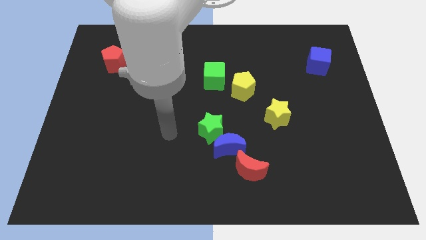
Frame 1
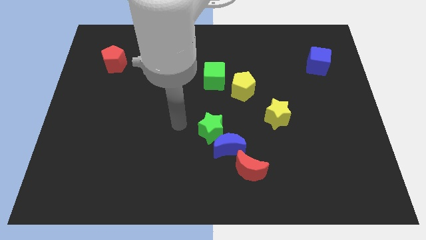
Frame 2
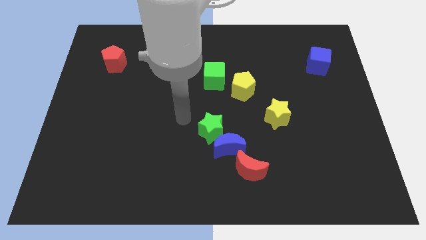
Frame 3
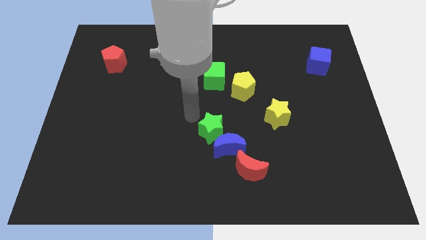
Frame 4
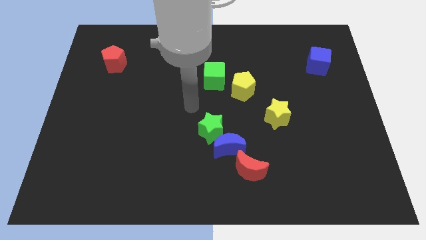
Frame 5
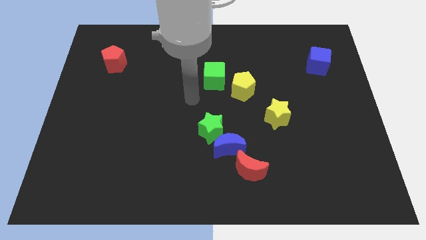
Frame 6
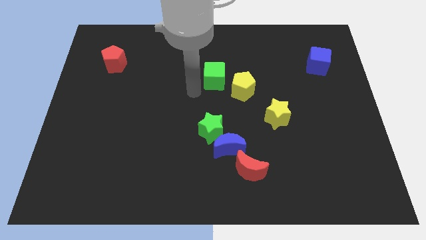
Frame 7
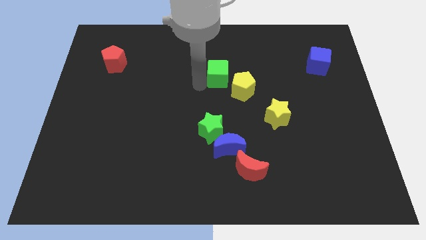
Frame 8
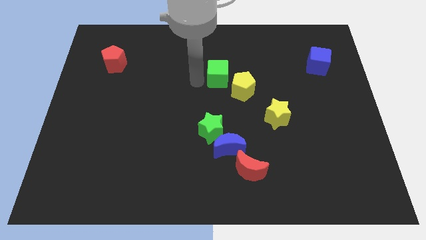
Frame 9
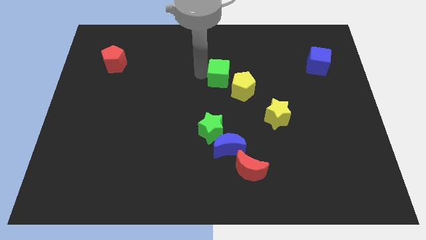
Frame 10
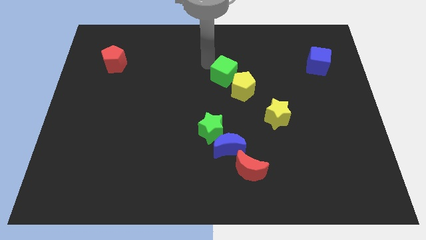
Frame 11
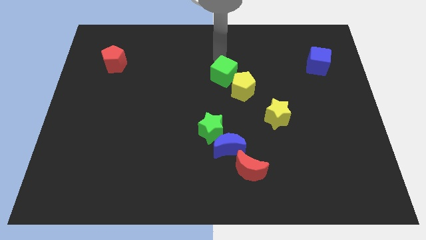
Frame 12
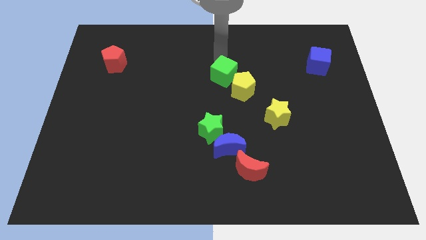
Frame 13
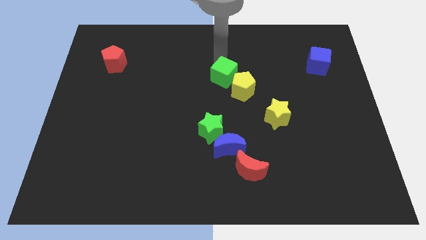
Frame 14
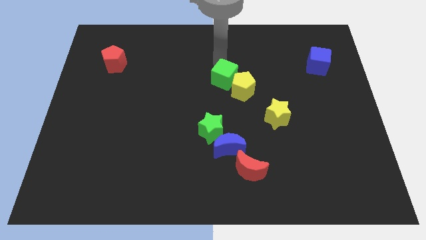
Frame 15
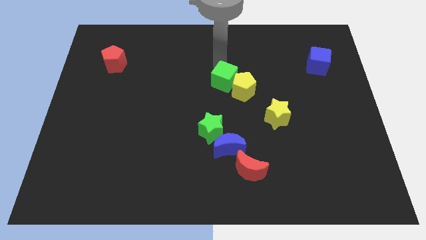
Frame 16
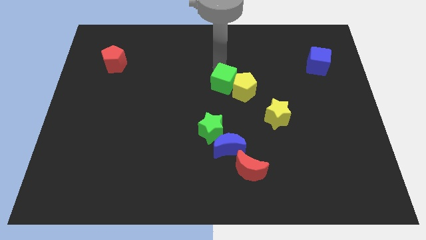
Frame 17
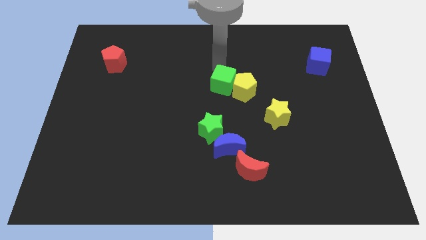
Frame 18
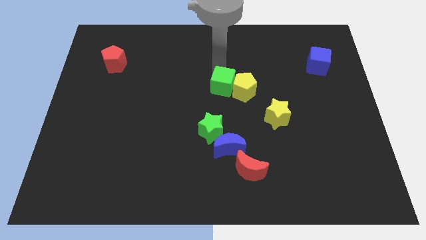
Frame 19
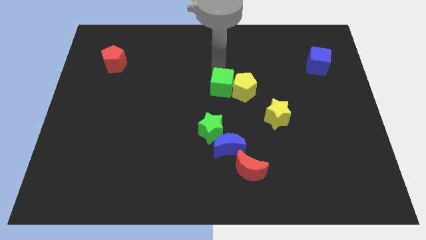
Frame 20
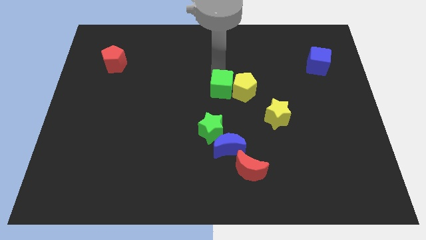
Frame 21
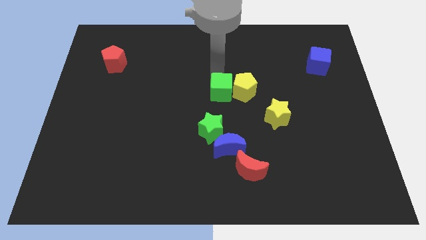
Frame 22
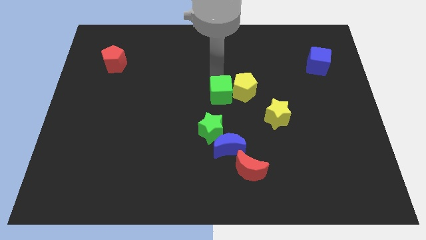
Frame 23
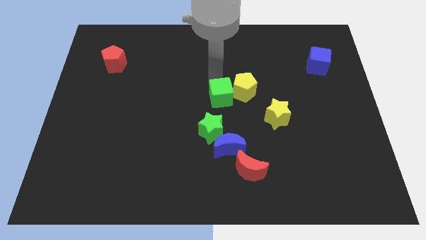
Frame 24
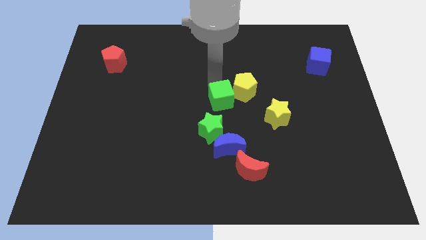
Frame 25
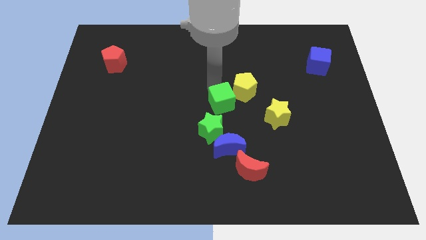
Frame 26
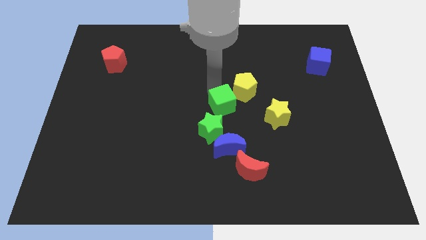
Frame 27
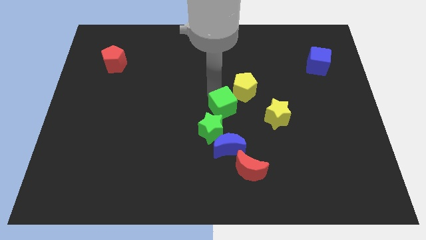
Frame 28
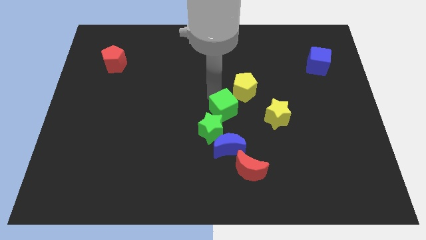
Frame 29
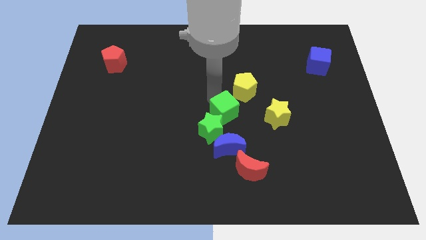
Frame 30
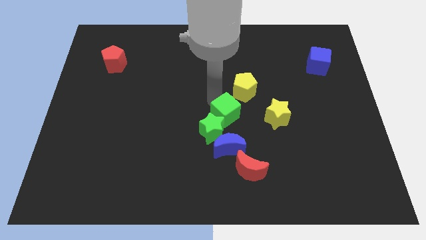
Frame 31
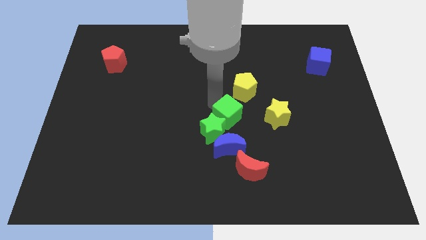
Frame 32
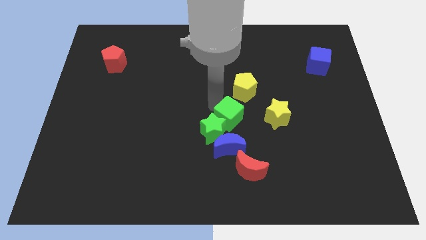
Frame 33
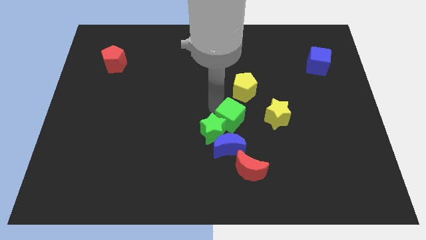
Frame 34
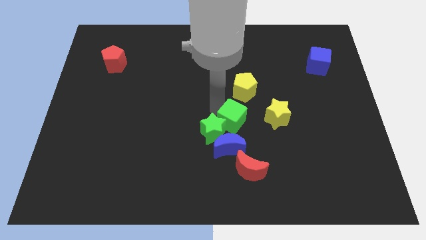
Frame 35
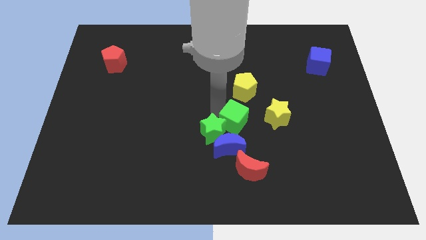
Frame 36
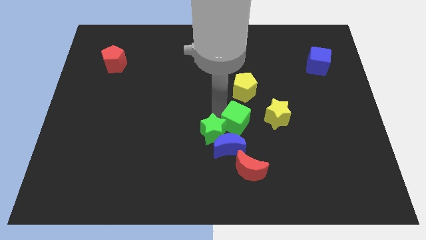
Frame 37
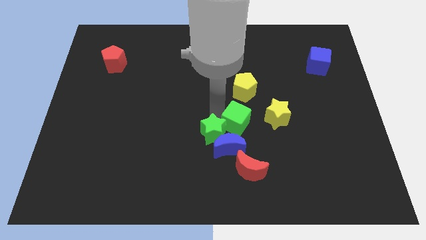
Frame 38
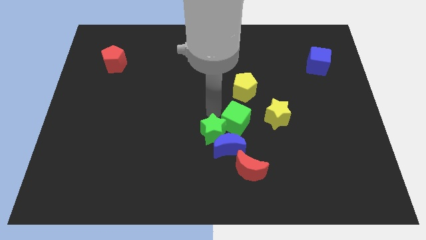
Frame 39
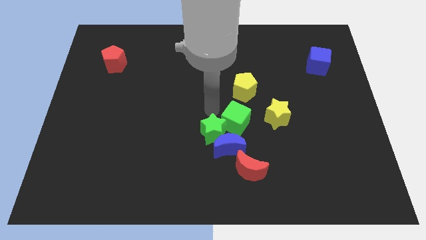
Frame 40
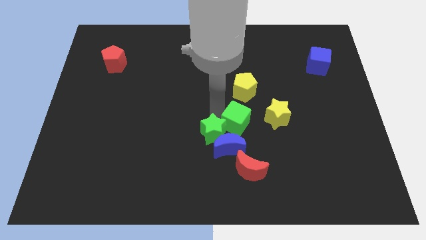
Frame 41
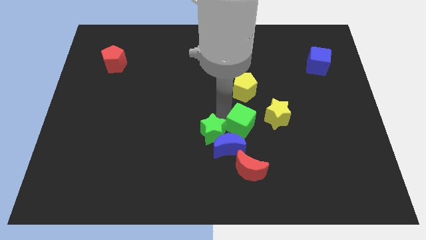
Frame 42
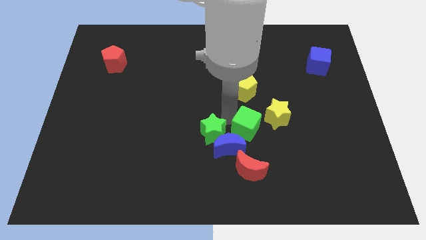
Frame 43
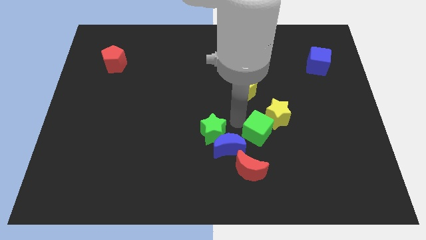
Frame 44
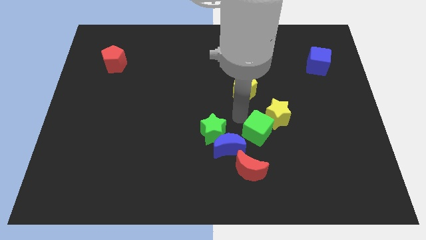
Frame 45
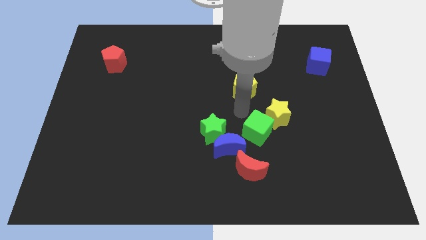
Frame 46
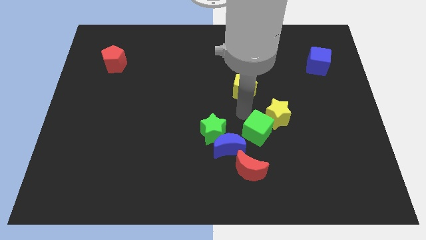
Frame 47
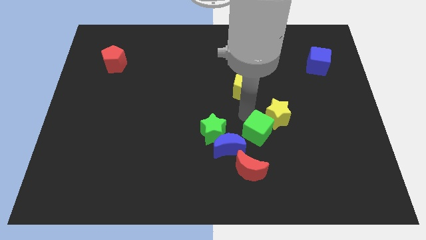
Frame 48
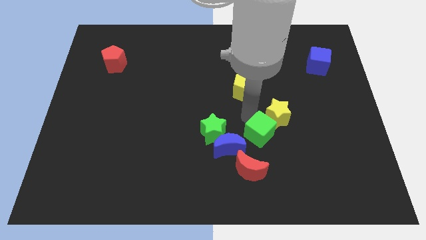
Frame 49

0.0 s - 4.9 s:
push the green cube to the top right of the red moon

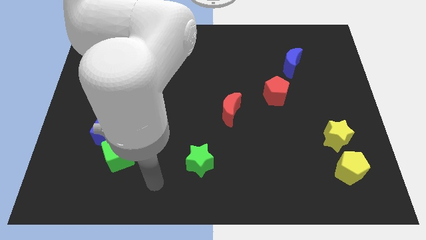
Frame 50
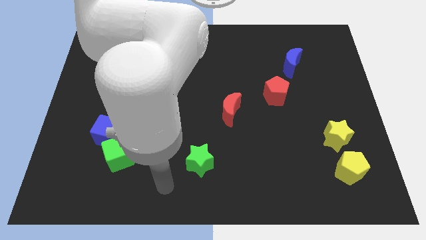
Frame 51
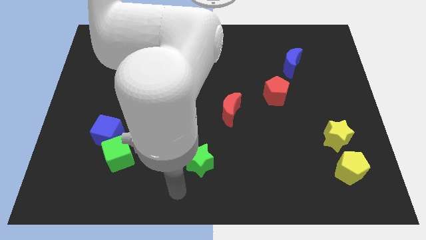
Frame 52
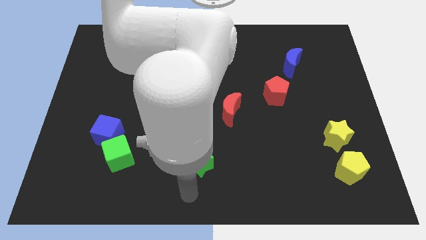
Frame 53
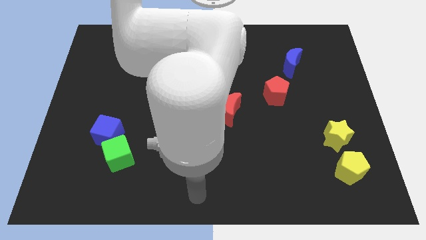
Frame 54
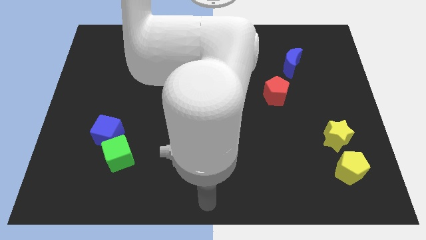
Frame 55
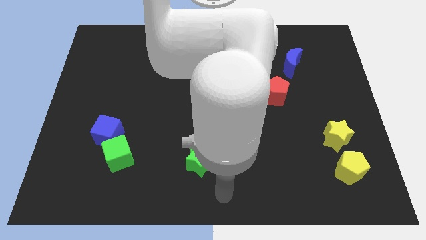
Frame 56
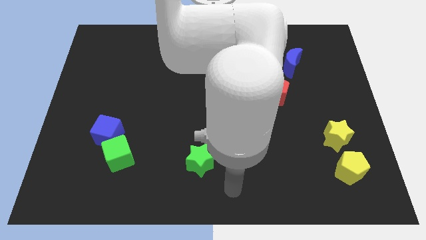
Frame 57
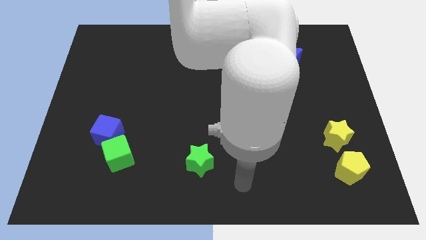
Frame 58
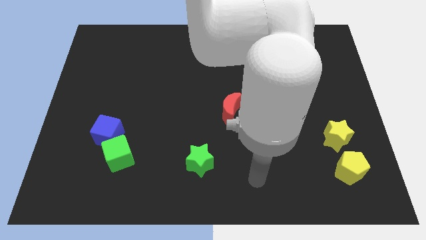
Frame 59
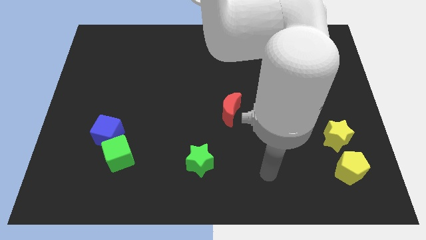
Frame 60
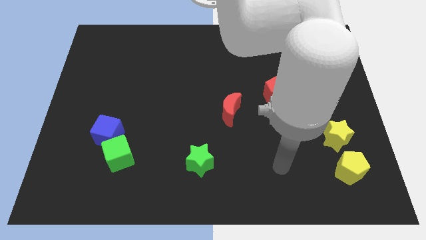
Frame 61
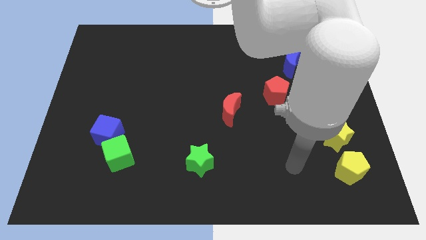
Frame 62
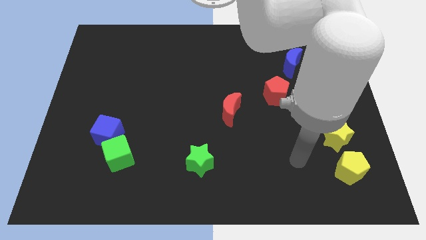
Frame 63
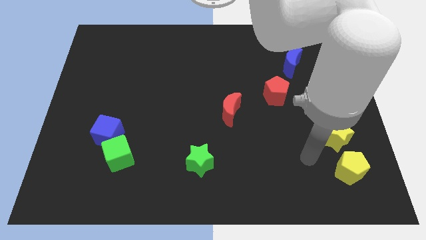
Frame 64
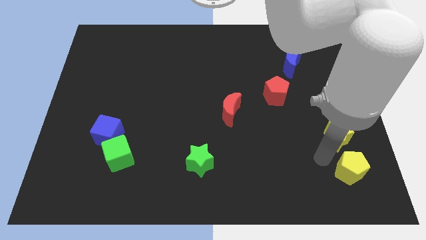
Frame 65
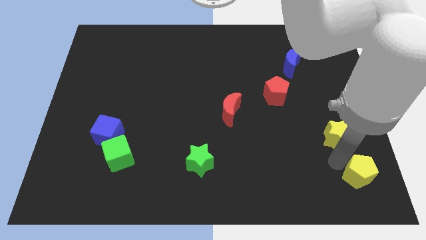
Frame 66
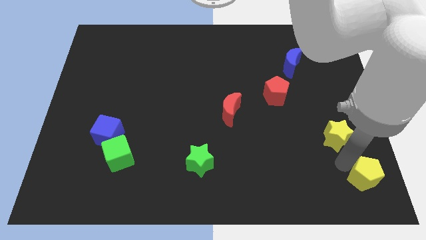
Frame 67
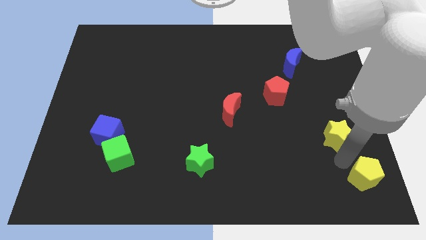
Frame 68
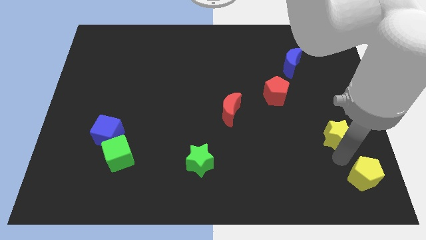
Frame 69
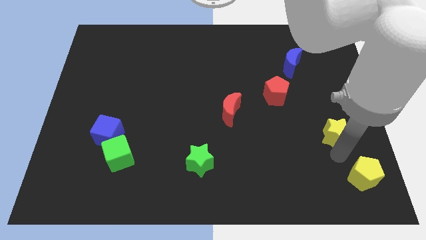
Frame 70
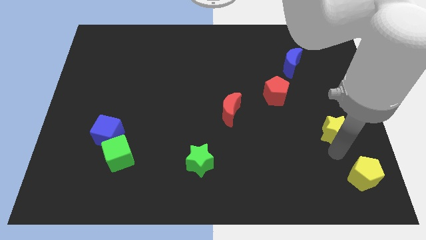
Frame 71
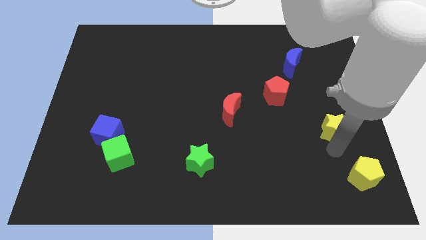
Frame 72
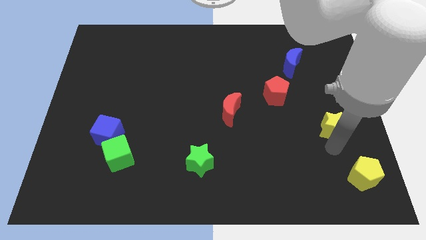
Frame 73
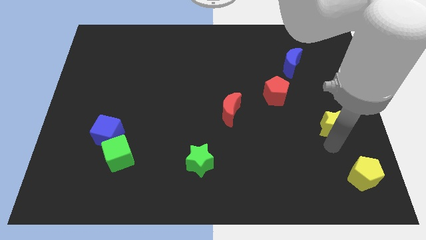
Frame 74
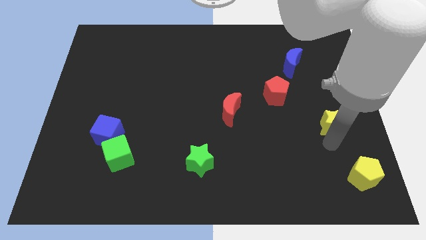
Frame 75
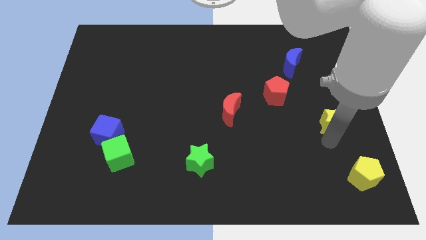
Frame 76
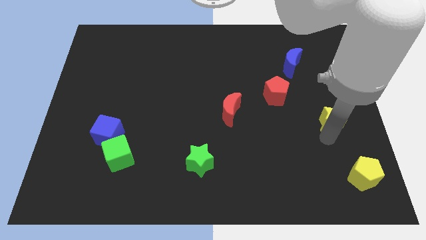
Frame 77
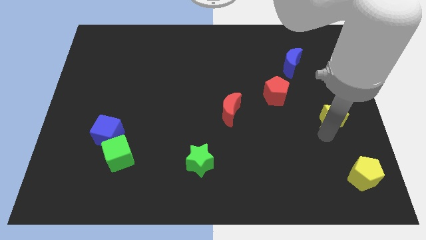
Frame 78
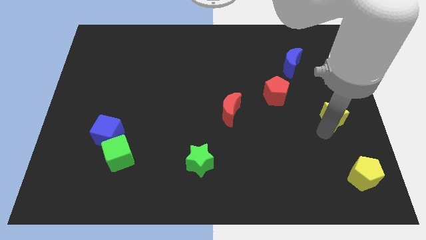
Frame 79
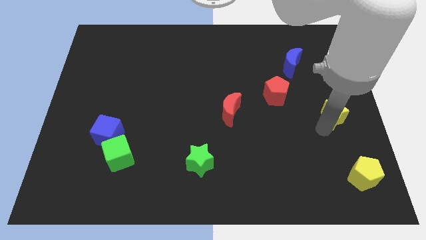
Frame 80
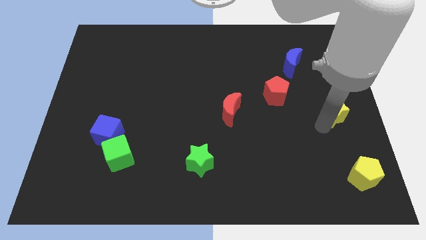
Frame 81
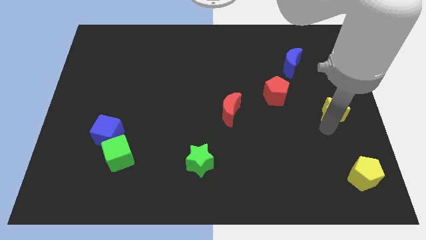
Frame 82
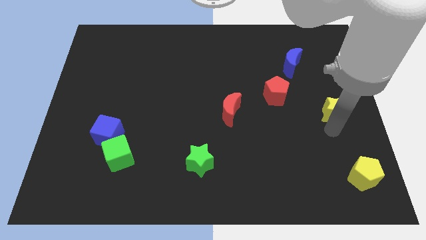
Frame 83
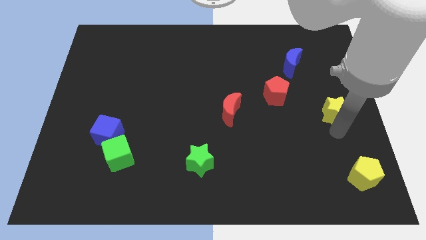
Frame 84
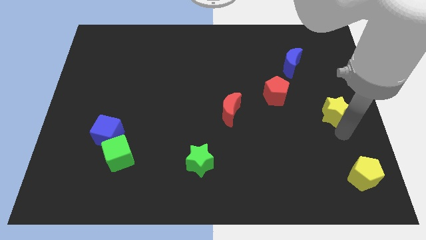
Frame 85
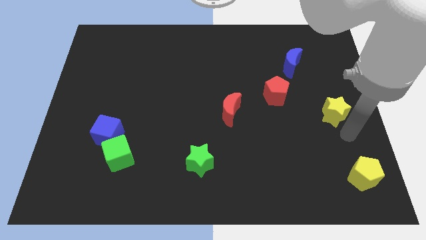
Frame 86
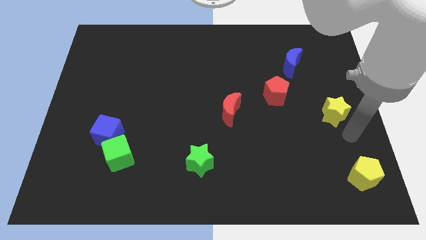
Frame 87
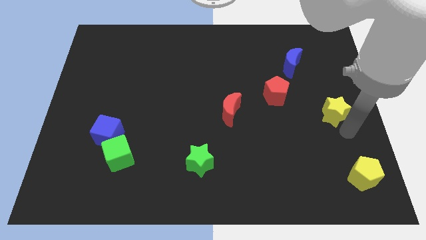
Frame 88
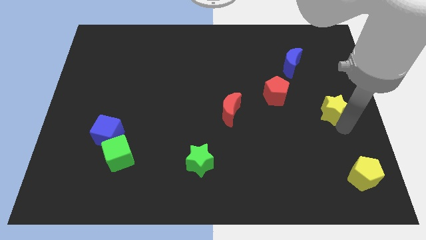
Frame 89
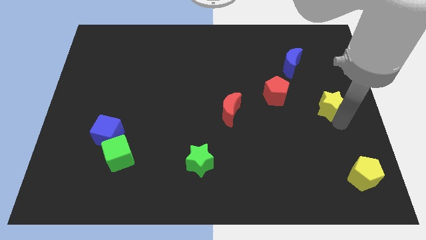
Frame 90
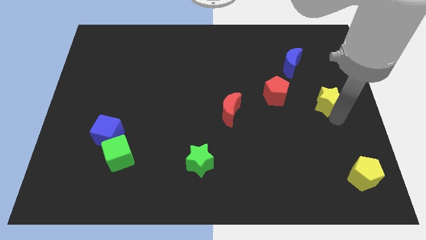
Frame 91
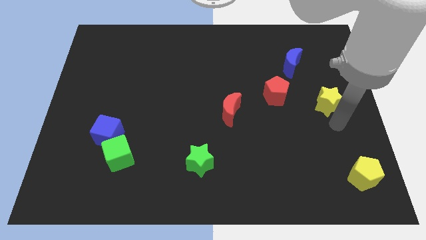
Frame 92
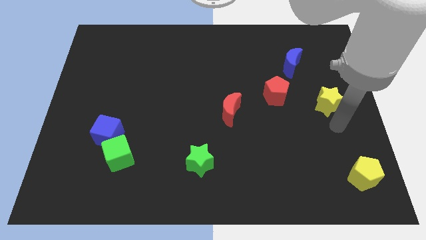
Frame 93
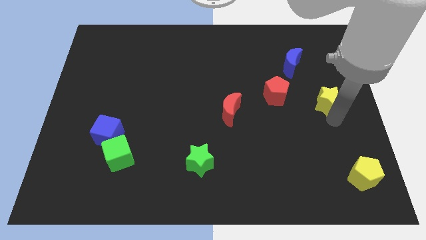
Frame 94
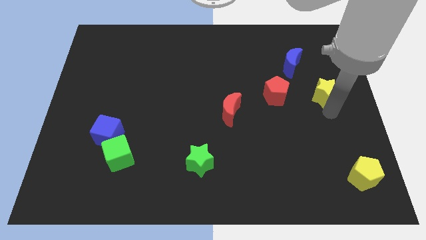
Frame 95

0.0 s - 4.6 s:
push the yellow star to the bottom right side of the blue moon
